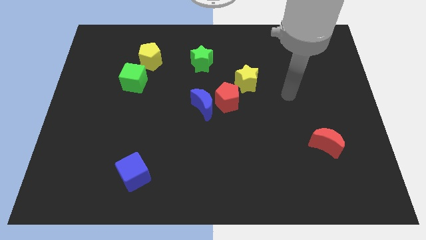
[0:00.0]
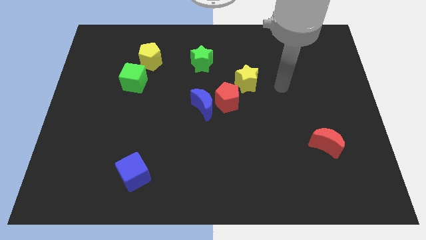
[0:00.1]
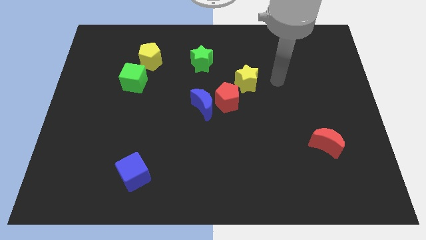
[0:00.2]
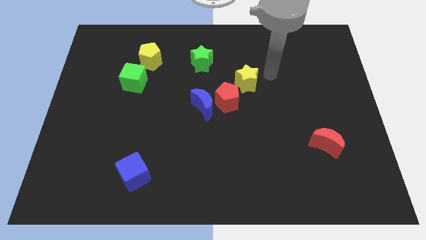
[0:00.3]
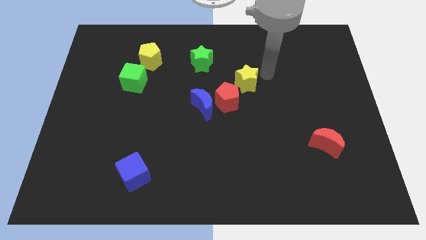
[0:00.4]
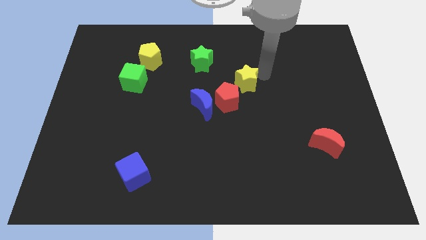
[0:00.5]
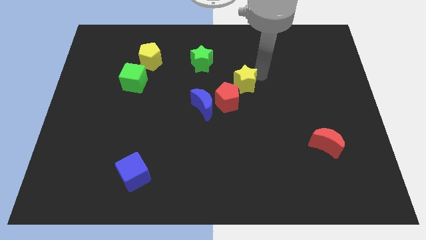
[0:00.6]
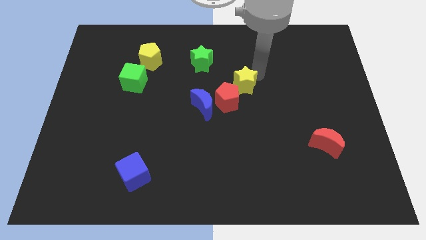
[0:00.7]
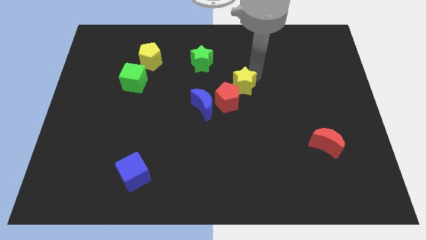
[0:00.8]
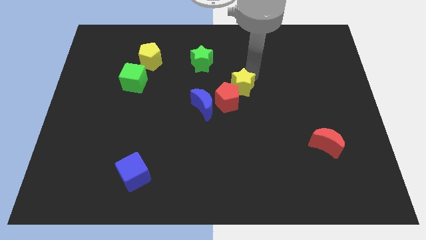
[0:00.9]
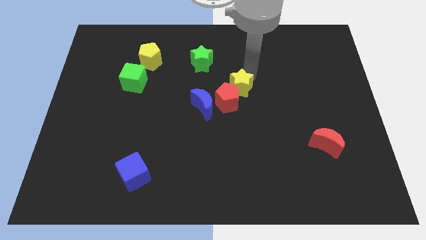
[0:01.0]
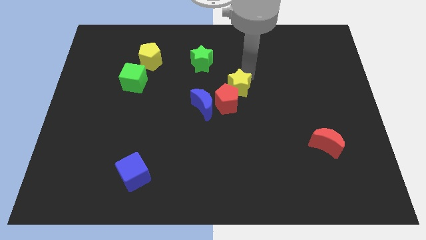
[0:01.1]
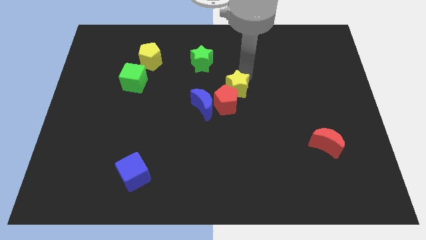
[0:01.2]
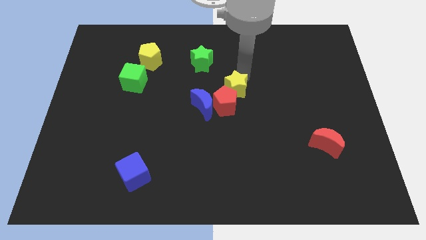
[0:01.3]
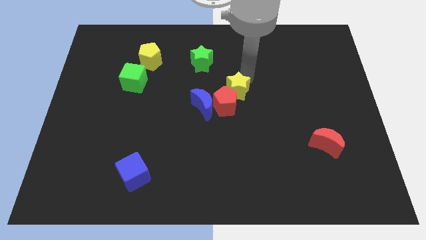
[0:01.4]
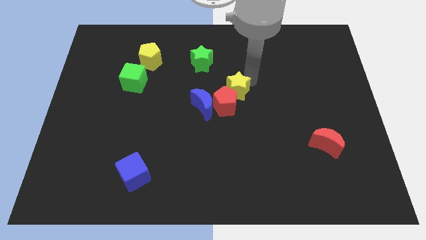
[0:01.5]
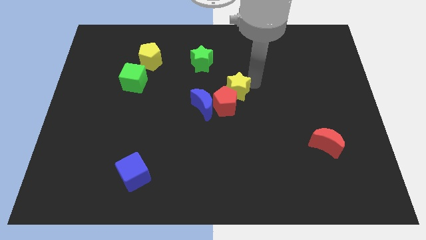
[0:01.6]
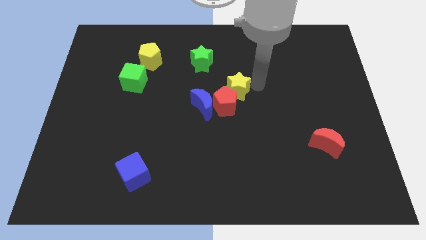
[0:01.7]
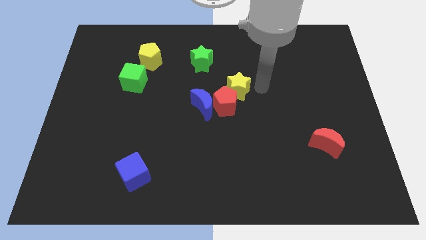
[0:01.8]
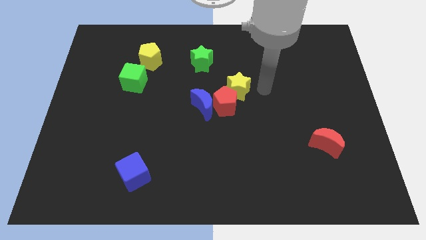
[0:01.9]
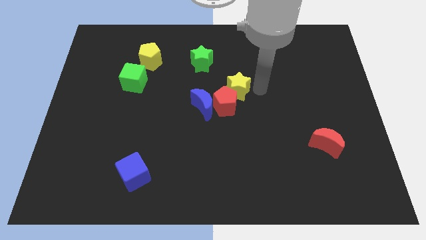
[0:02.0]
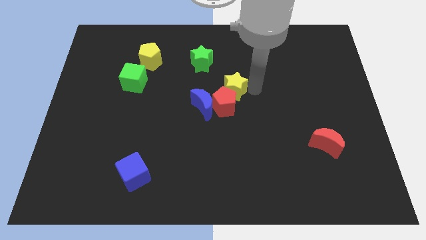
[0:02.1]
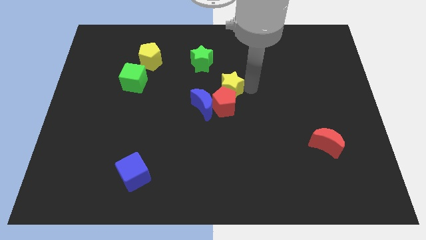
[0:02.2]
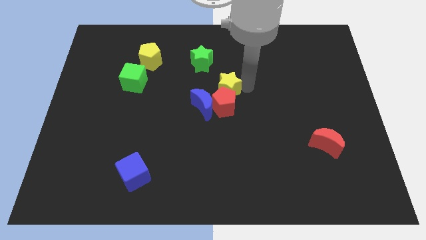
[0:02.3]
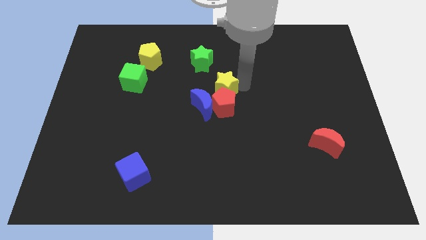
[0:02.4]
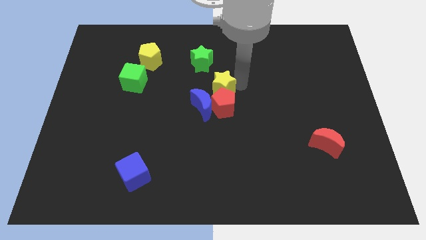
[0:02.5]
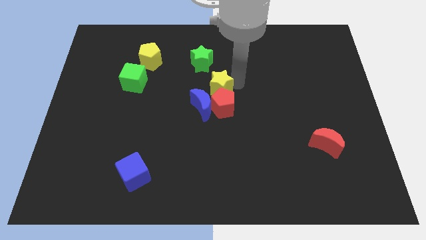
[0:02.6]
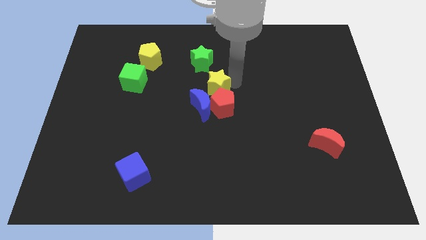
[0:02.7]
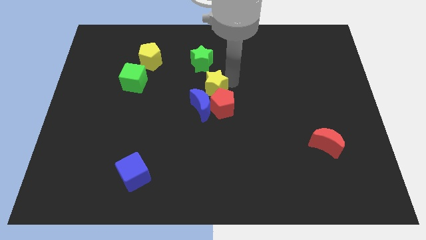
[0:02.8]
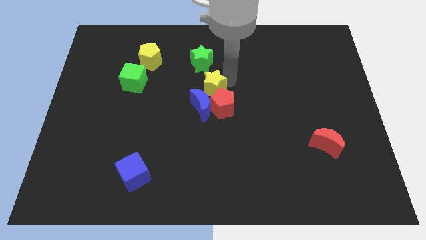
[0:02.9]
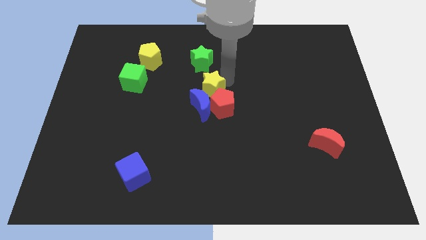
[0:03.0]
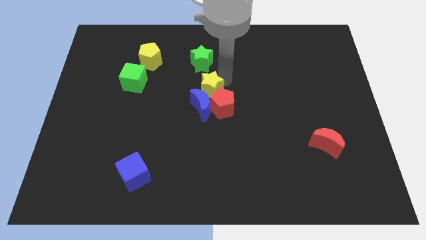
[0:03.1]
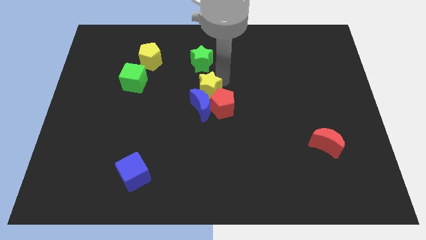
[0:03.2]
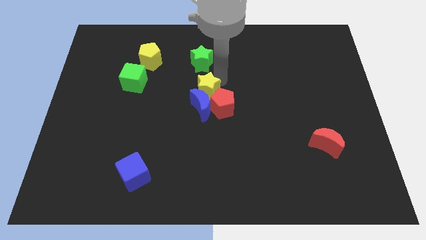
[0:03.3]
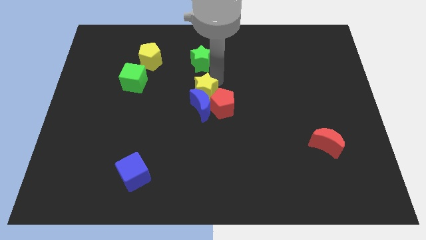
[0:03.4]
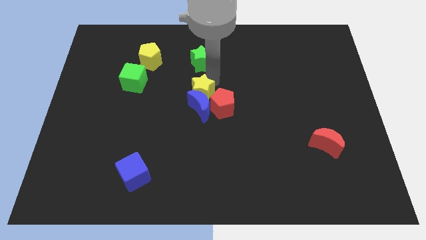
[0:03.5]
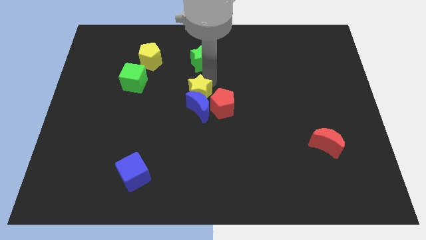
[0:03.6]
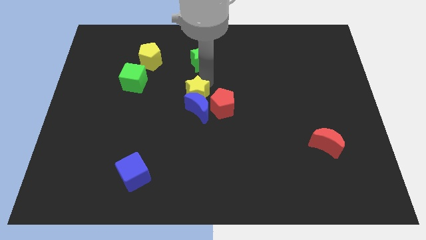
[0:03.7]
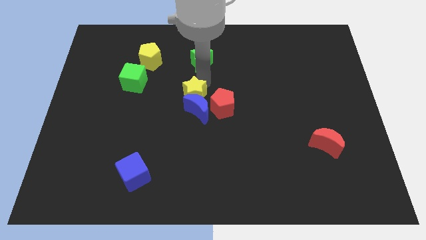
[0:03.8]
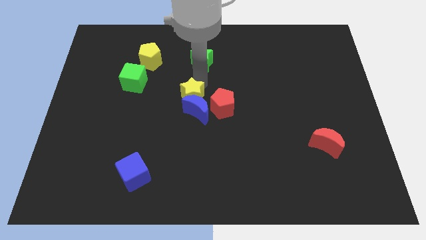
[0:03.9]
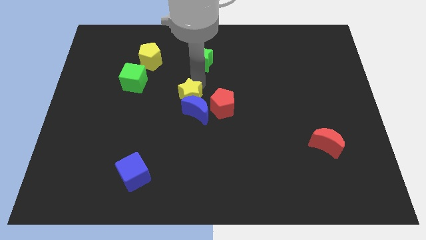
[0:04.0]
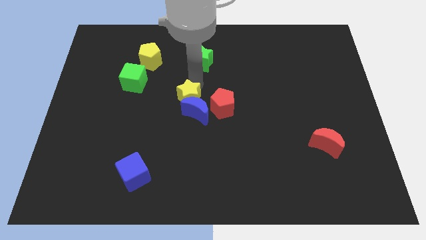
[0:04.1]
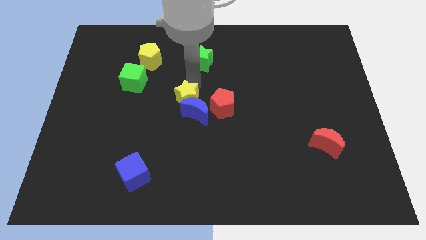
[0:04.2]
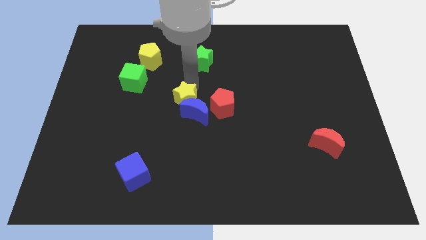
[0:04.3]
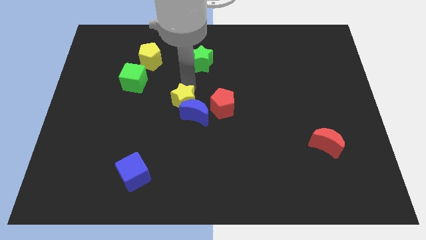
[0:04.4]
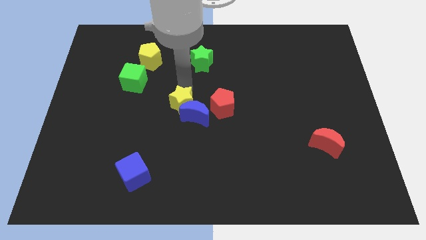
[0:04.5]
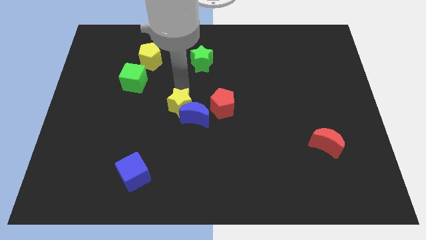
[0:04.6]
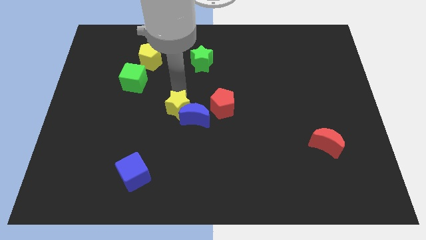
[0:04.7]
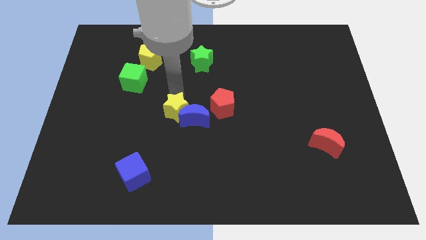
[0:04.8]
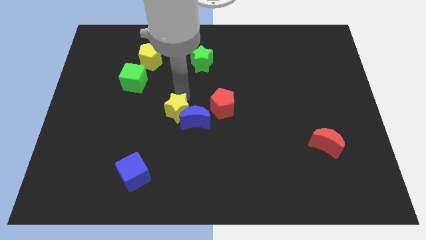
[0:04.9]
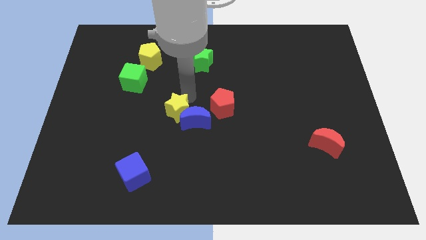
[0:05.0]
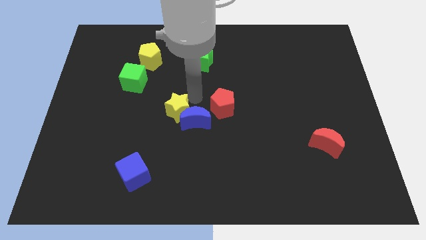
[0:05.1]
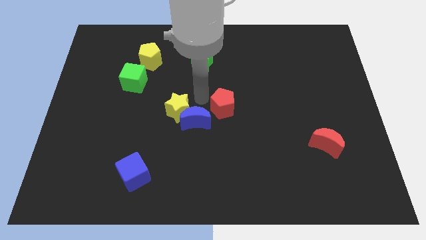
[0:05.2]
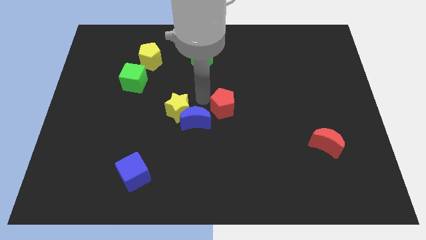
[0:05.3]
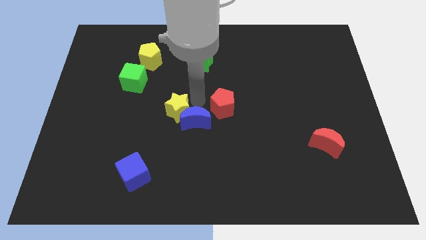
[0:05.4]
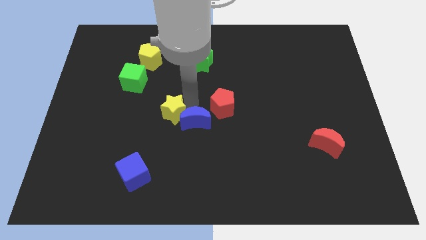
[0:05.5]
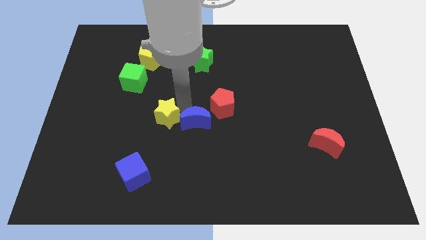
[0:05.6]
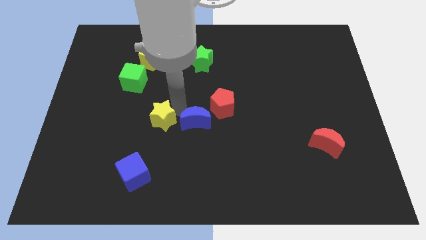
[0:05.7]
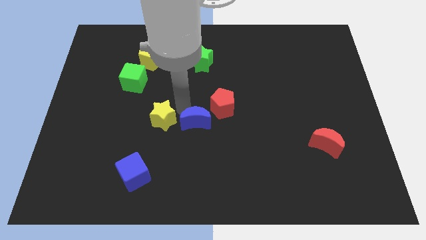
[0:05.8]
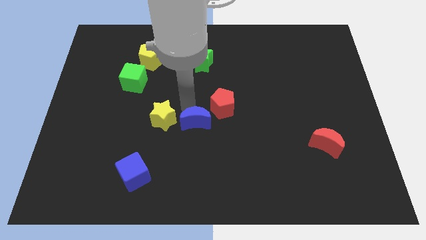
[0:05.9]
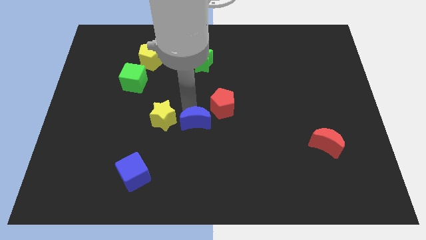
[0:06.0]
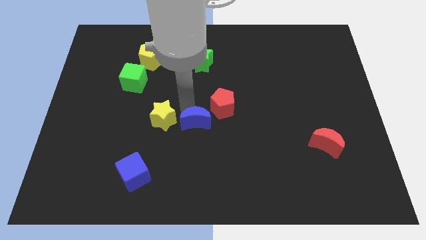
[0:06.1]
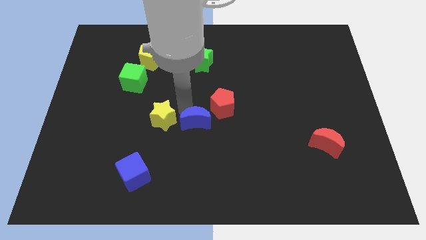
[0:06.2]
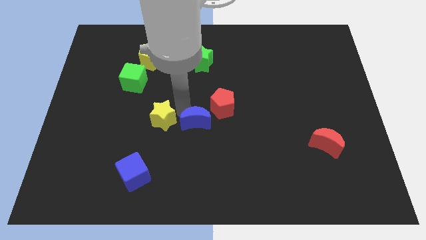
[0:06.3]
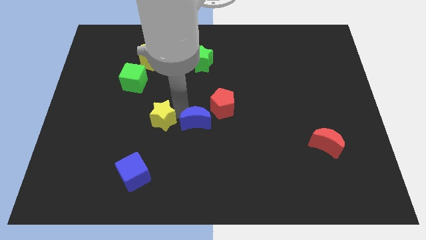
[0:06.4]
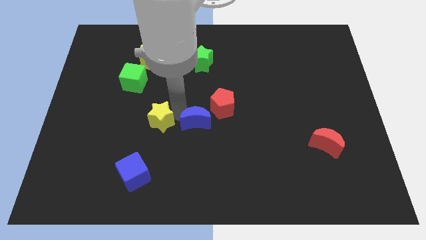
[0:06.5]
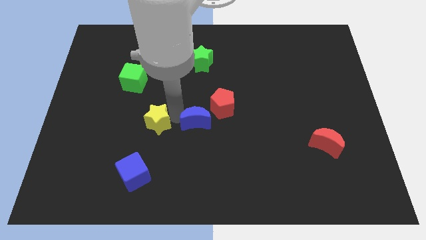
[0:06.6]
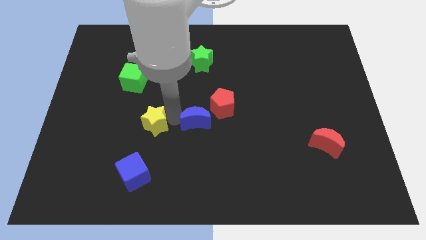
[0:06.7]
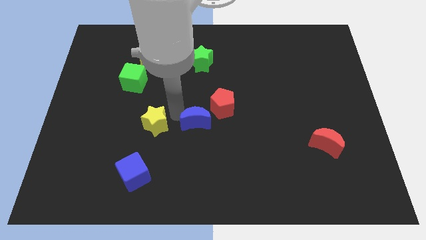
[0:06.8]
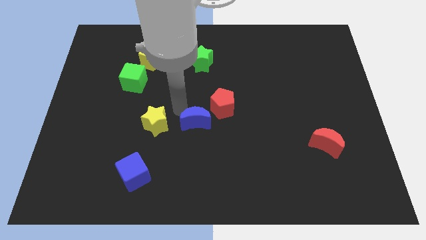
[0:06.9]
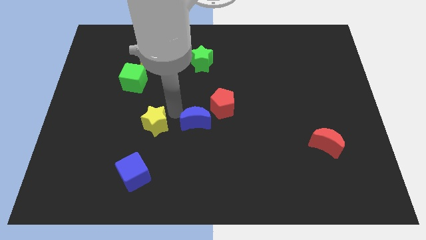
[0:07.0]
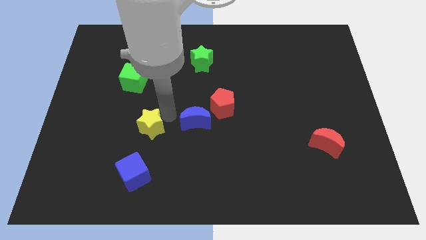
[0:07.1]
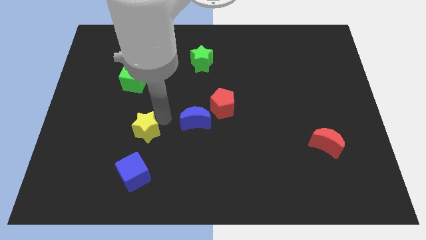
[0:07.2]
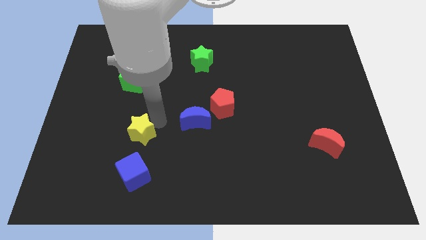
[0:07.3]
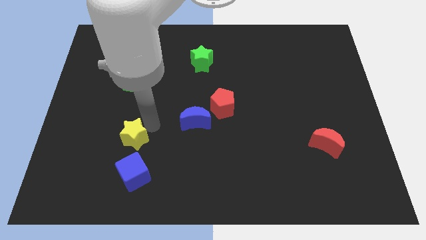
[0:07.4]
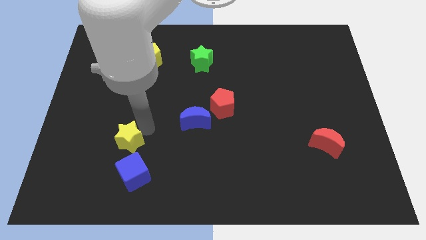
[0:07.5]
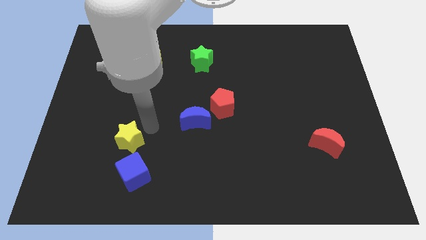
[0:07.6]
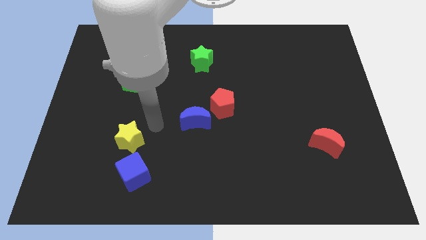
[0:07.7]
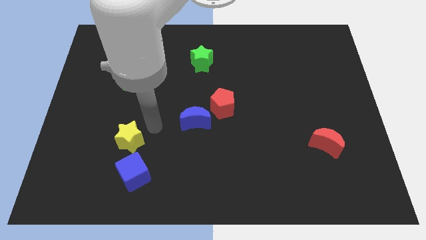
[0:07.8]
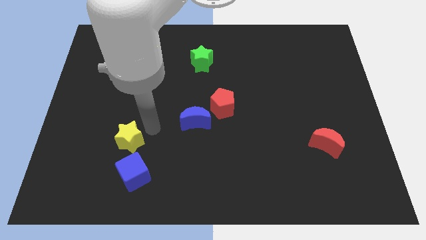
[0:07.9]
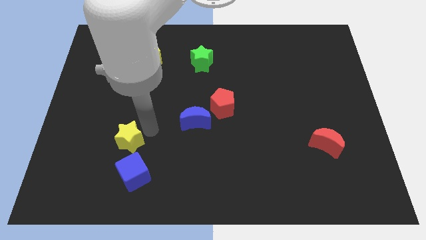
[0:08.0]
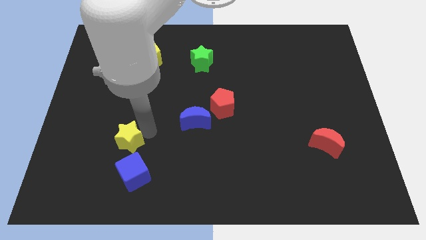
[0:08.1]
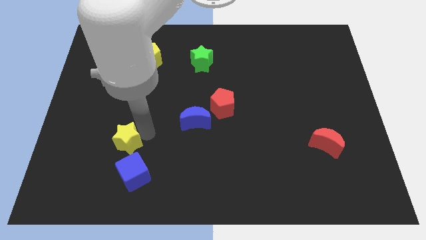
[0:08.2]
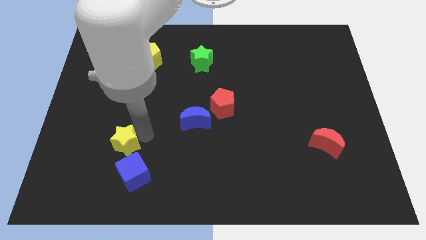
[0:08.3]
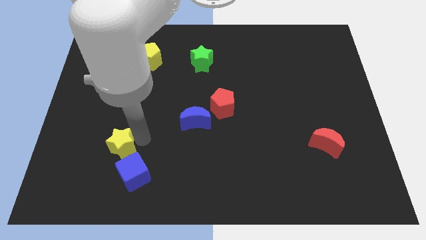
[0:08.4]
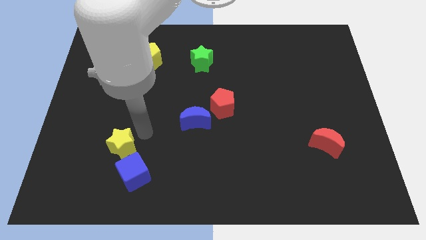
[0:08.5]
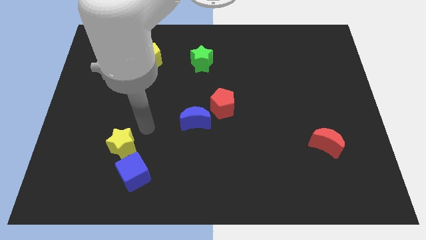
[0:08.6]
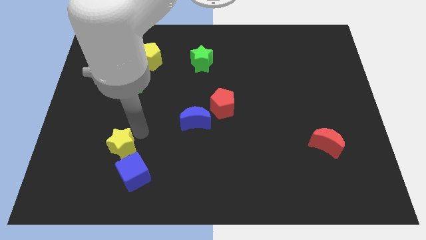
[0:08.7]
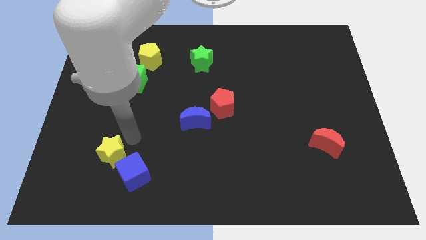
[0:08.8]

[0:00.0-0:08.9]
push the yellow star to the left side of the blue cube
